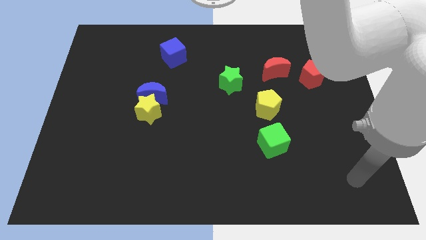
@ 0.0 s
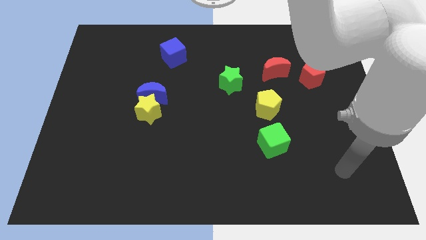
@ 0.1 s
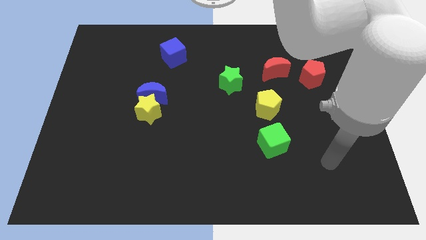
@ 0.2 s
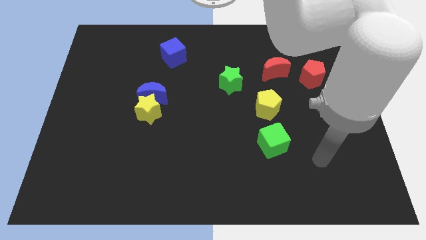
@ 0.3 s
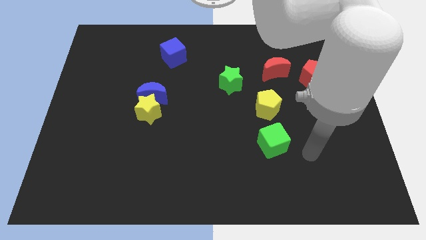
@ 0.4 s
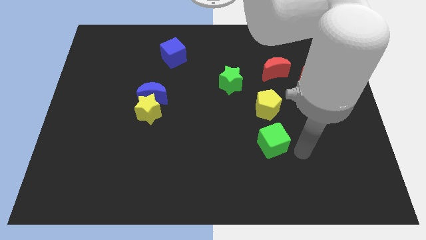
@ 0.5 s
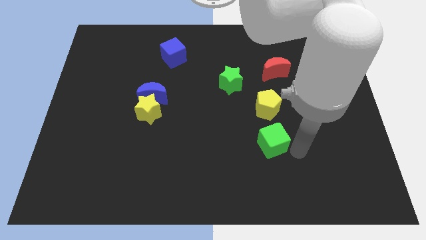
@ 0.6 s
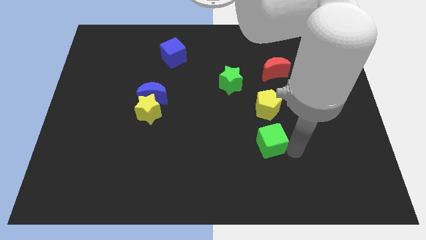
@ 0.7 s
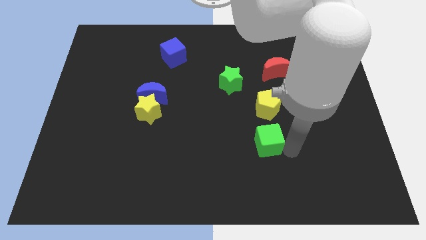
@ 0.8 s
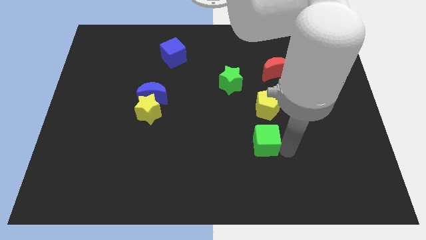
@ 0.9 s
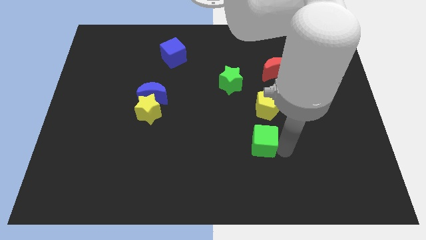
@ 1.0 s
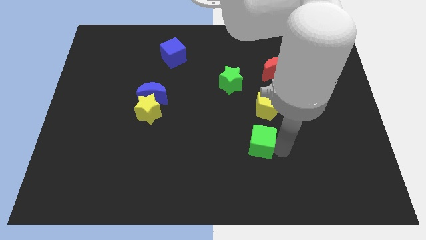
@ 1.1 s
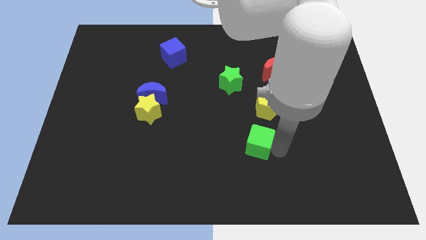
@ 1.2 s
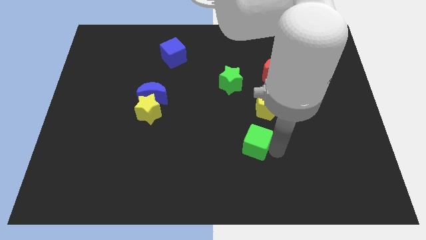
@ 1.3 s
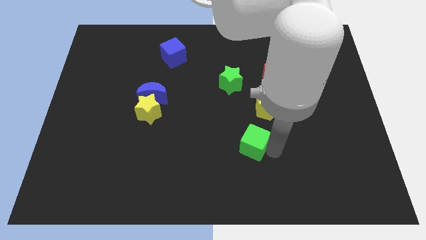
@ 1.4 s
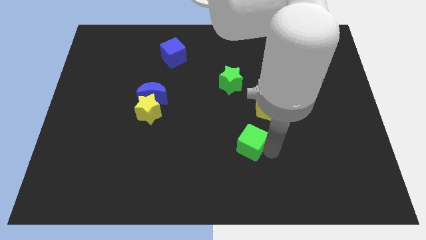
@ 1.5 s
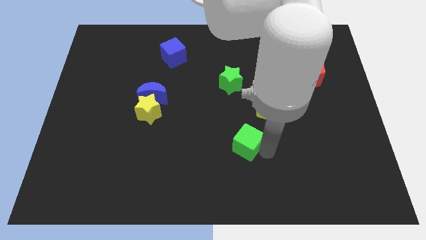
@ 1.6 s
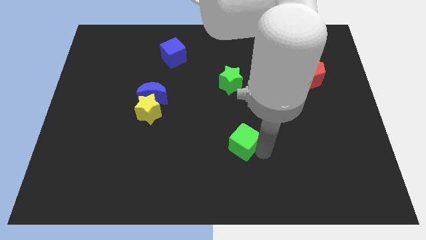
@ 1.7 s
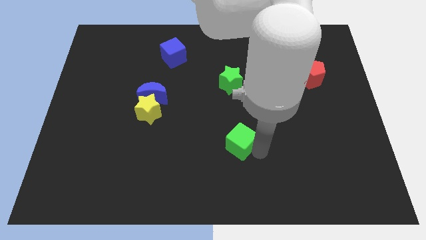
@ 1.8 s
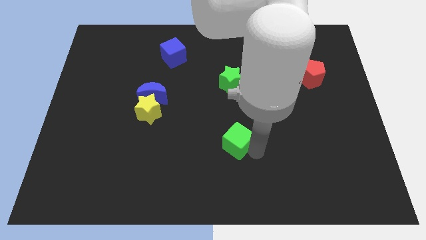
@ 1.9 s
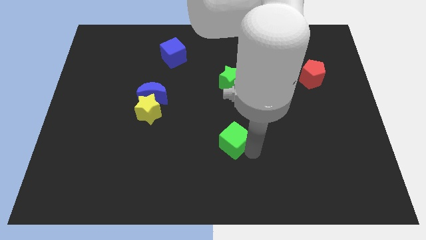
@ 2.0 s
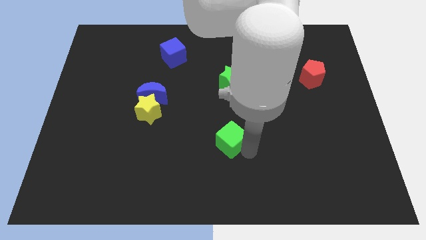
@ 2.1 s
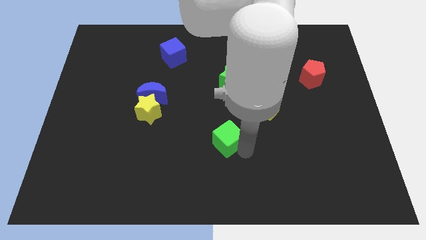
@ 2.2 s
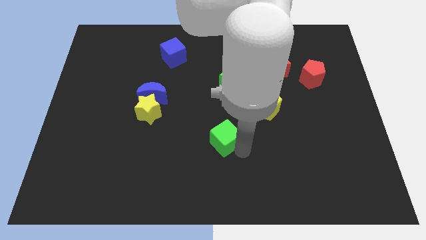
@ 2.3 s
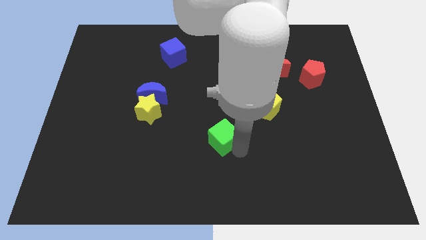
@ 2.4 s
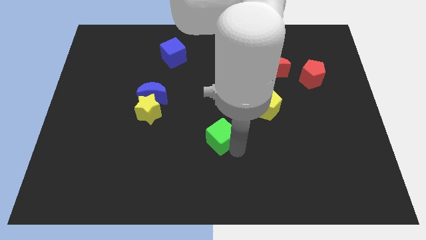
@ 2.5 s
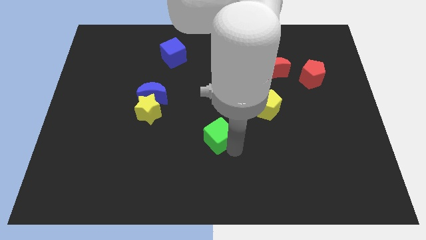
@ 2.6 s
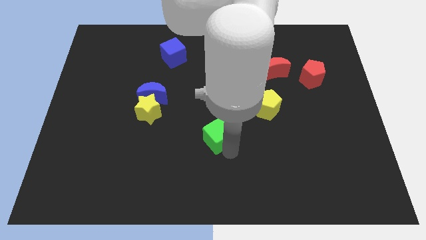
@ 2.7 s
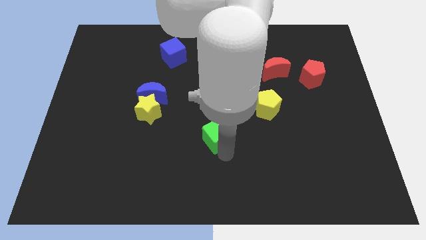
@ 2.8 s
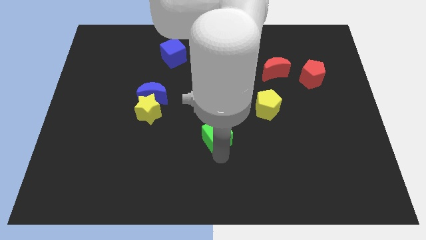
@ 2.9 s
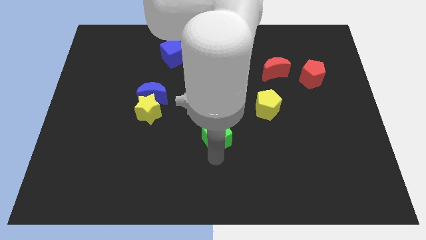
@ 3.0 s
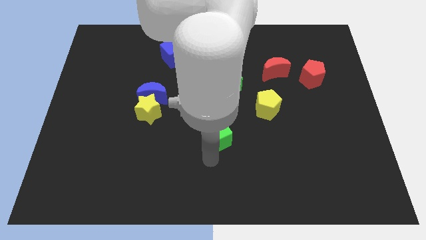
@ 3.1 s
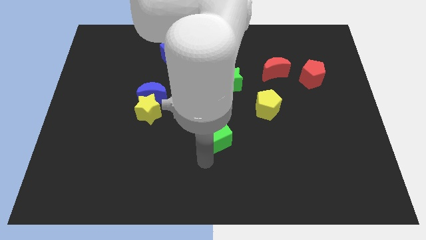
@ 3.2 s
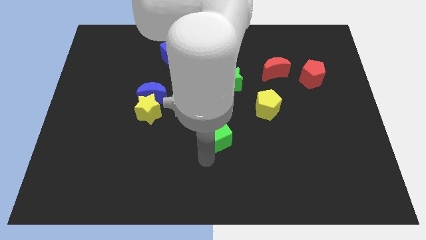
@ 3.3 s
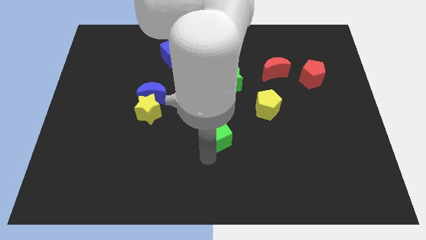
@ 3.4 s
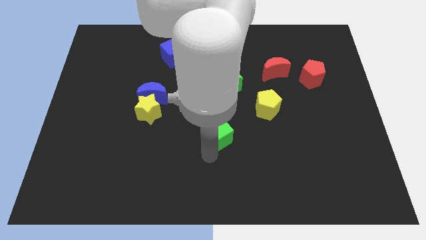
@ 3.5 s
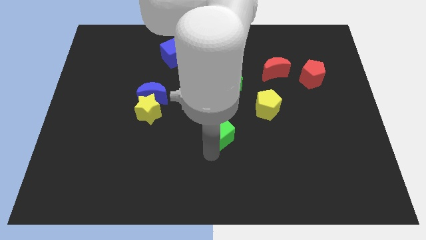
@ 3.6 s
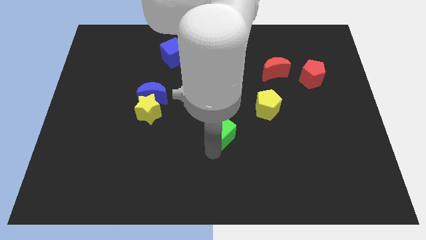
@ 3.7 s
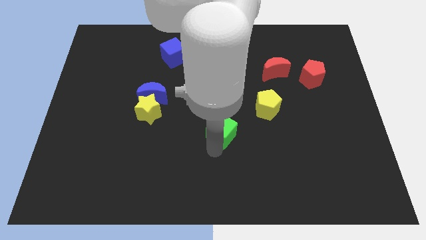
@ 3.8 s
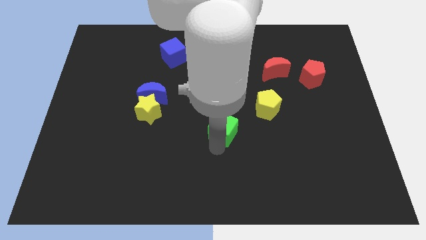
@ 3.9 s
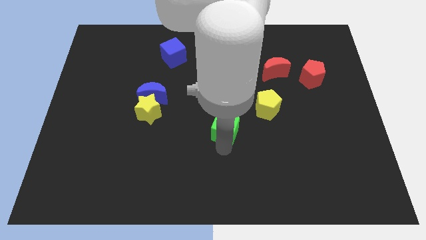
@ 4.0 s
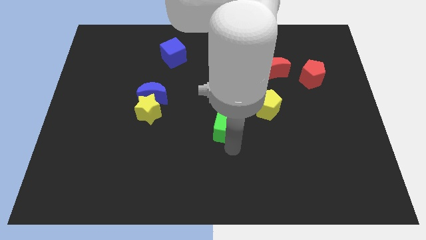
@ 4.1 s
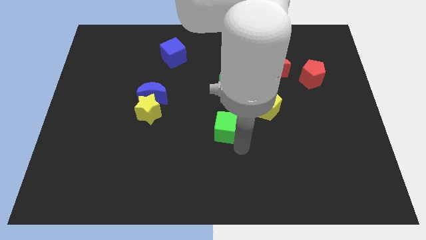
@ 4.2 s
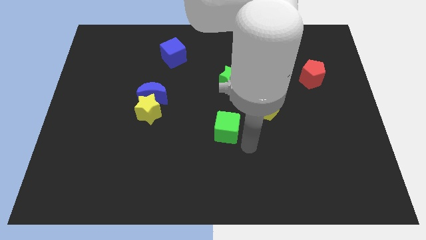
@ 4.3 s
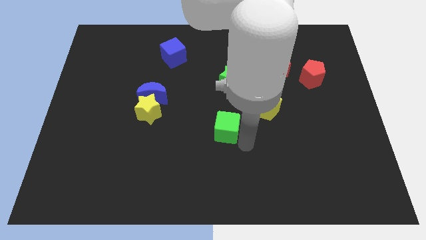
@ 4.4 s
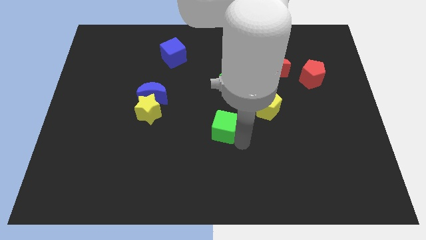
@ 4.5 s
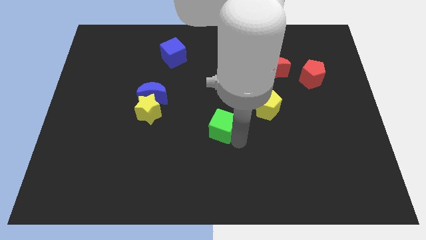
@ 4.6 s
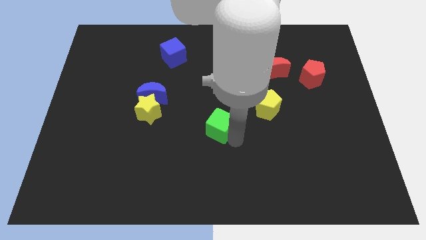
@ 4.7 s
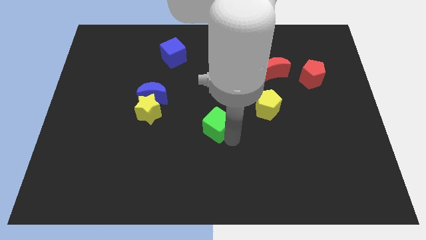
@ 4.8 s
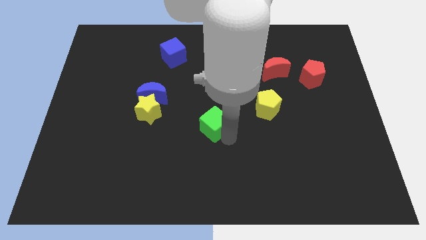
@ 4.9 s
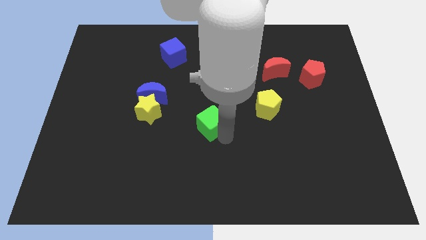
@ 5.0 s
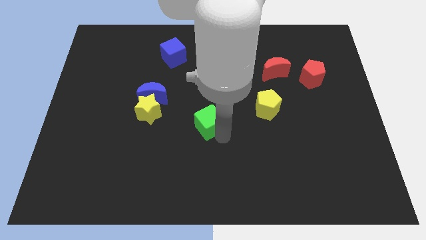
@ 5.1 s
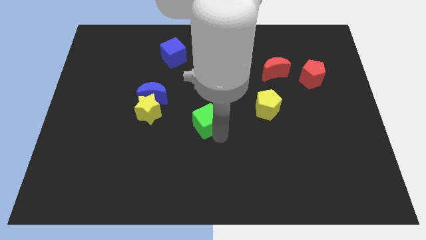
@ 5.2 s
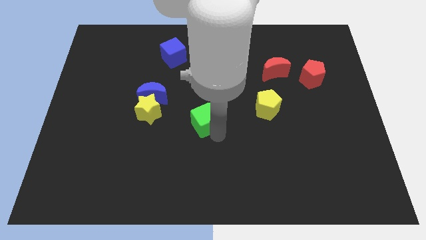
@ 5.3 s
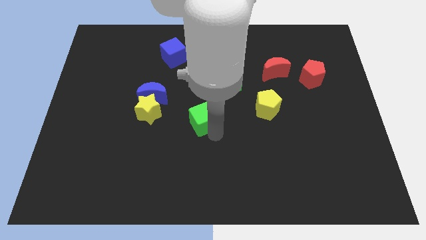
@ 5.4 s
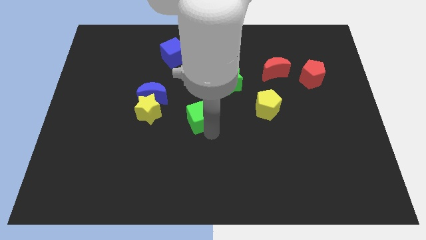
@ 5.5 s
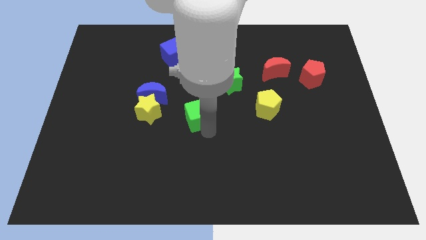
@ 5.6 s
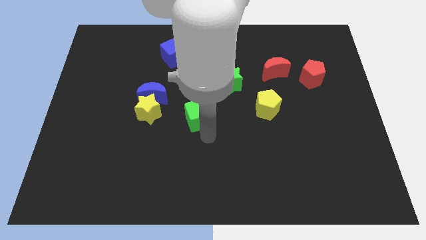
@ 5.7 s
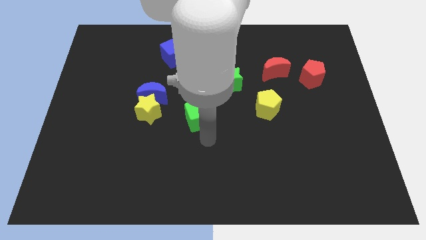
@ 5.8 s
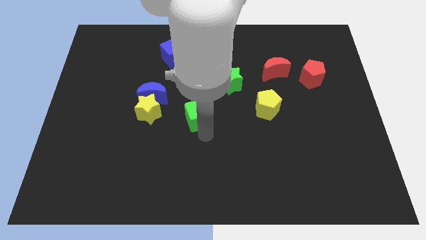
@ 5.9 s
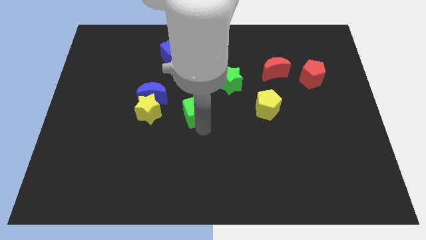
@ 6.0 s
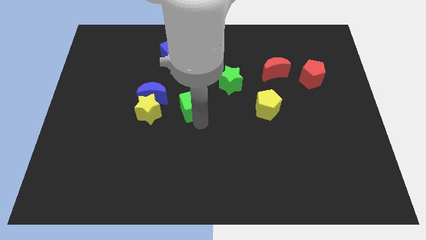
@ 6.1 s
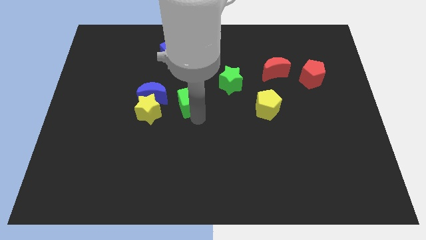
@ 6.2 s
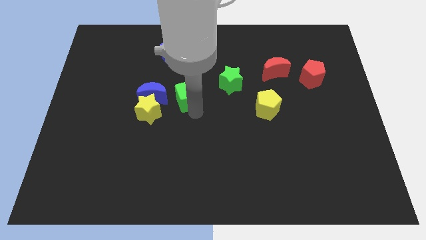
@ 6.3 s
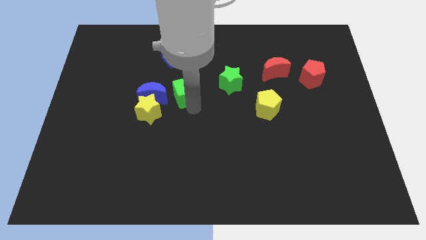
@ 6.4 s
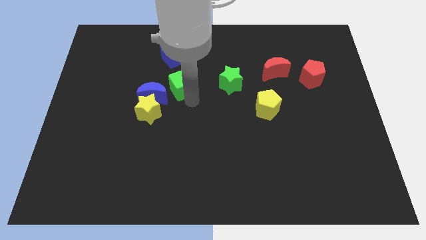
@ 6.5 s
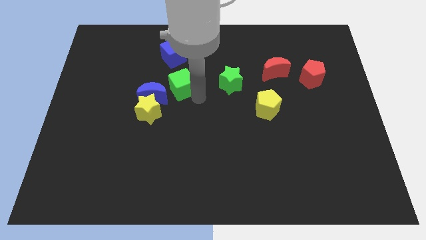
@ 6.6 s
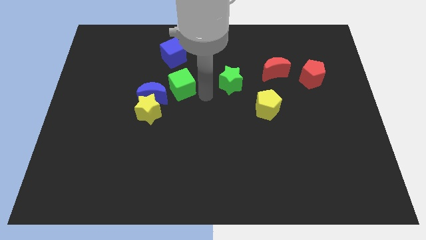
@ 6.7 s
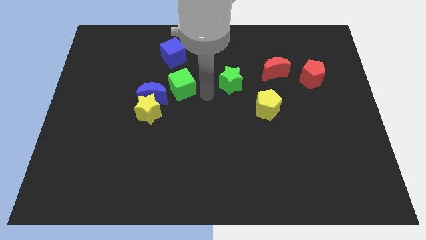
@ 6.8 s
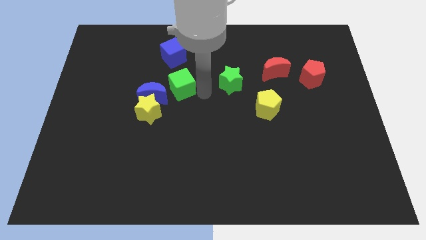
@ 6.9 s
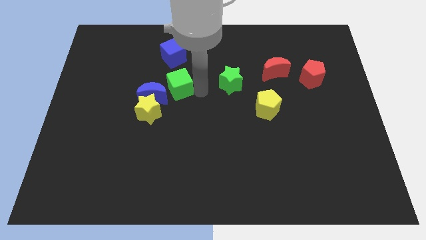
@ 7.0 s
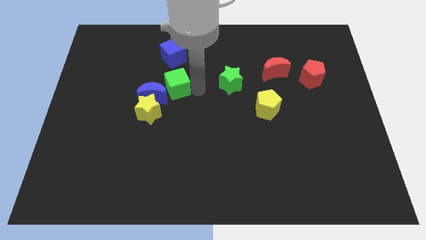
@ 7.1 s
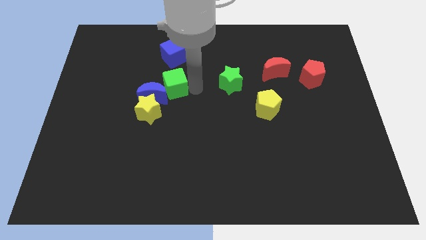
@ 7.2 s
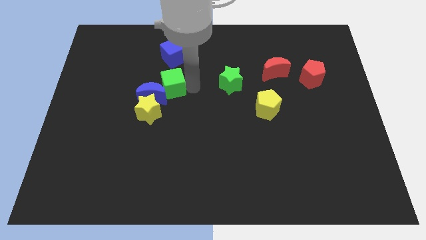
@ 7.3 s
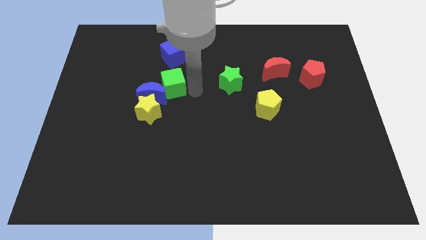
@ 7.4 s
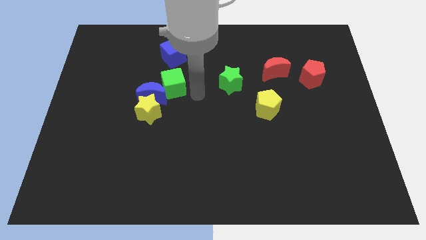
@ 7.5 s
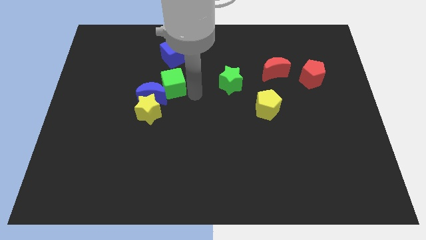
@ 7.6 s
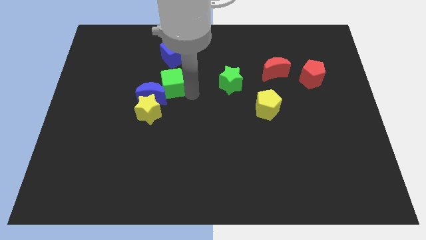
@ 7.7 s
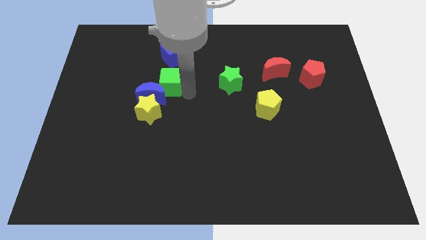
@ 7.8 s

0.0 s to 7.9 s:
push the green cube above the yellow star

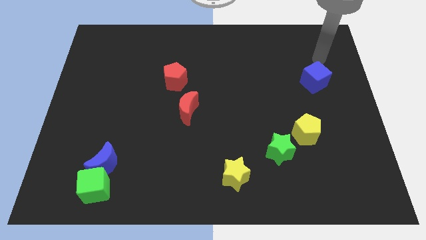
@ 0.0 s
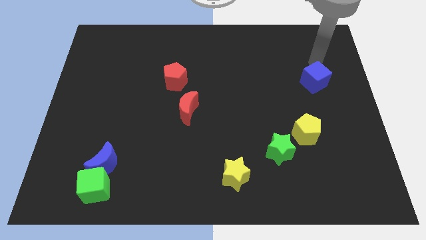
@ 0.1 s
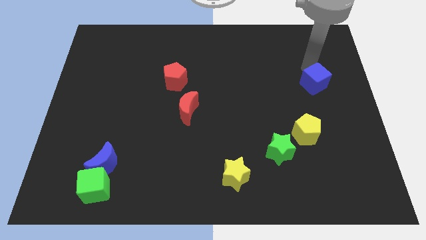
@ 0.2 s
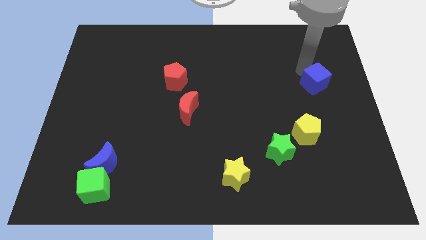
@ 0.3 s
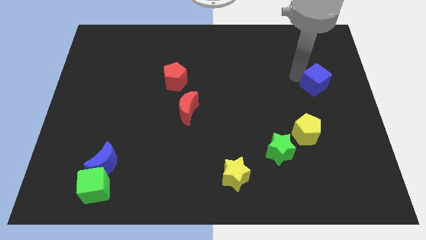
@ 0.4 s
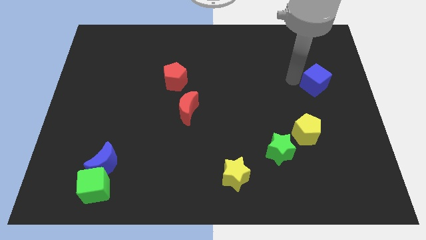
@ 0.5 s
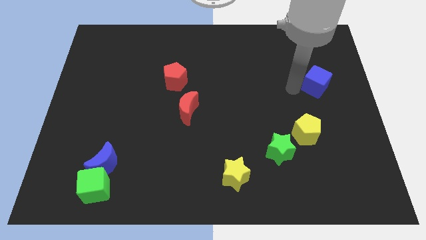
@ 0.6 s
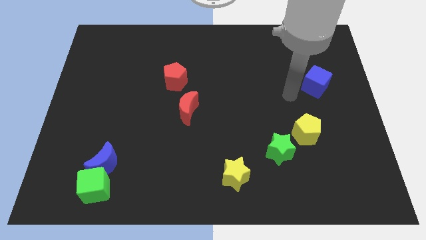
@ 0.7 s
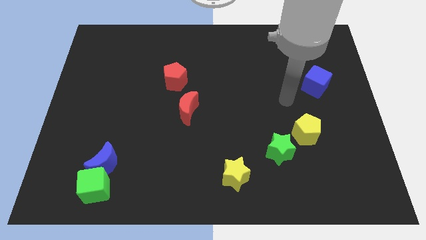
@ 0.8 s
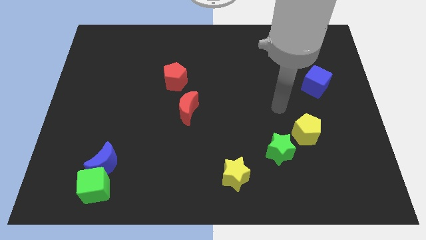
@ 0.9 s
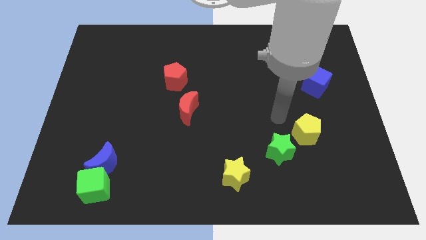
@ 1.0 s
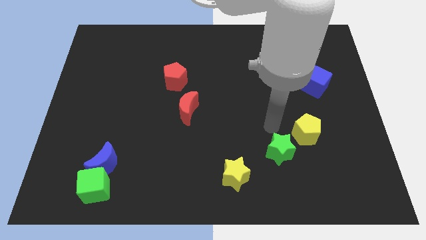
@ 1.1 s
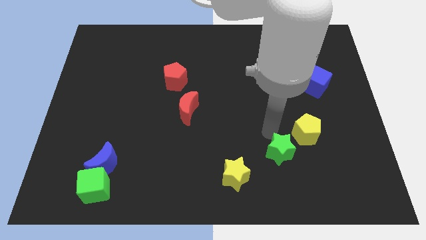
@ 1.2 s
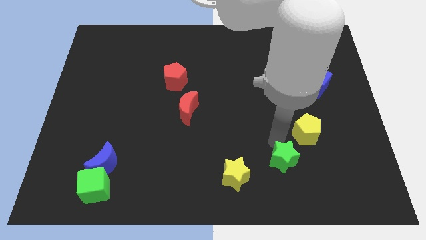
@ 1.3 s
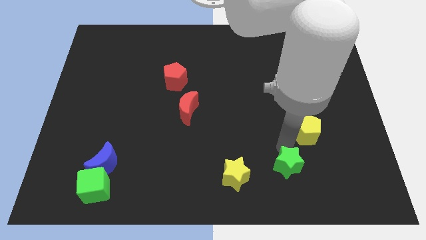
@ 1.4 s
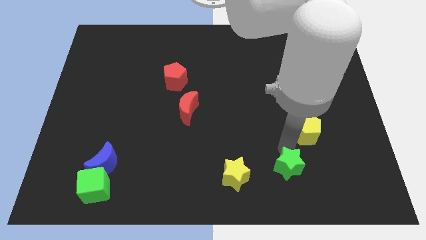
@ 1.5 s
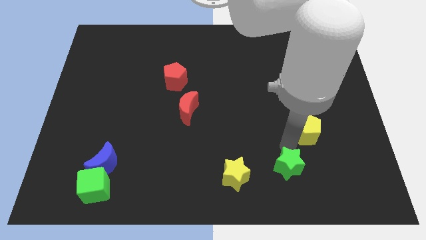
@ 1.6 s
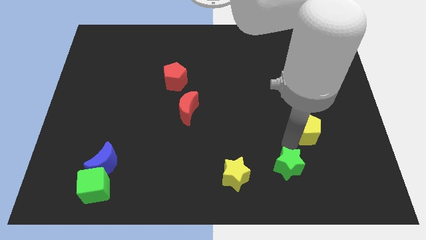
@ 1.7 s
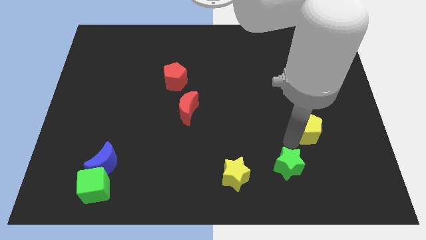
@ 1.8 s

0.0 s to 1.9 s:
put the yellow pentagon to the bottom of the blue cube
